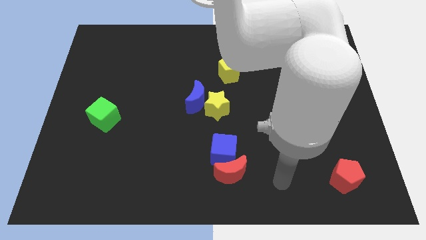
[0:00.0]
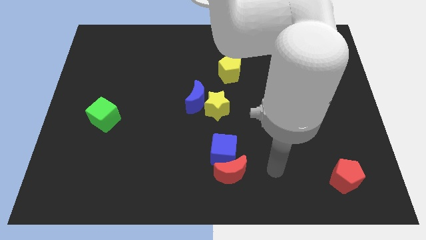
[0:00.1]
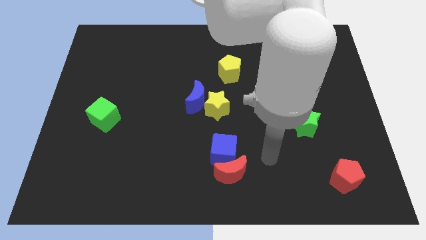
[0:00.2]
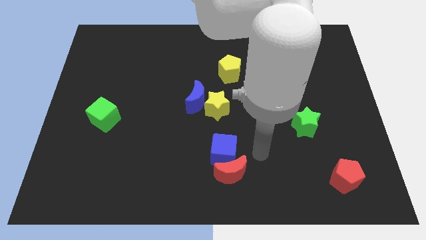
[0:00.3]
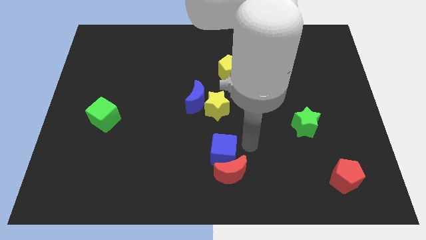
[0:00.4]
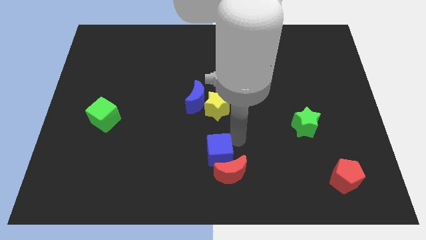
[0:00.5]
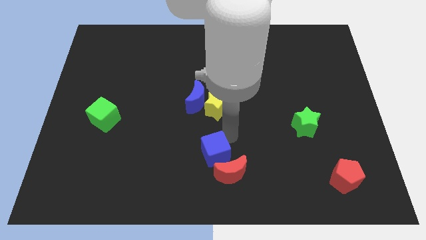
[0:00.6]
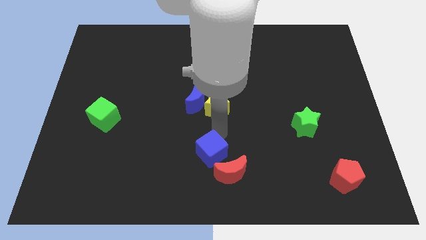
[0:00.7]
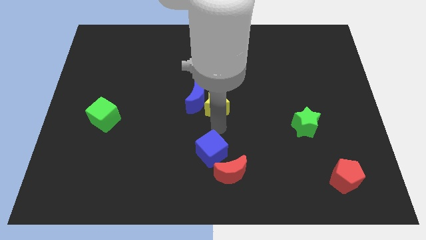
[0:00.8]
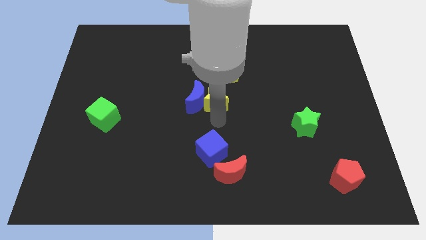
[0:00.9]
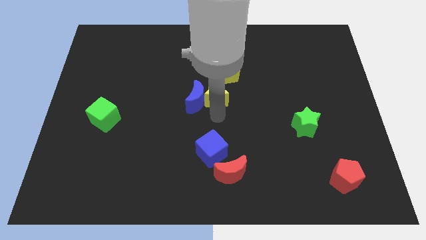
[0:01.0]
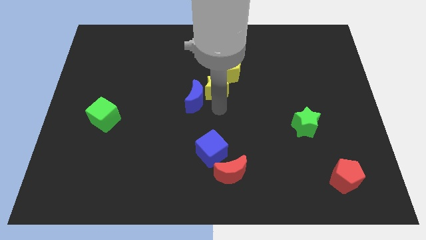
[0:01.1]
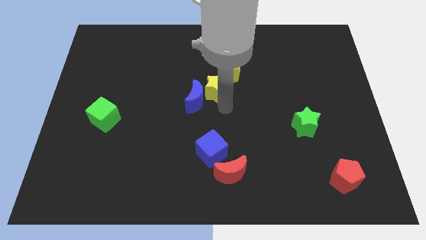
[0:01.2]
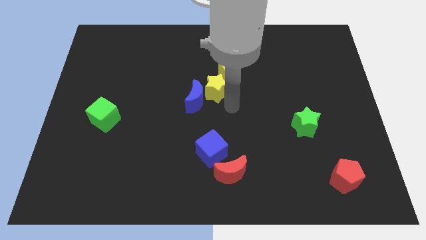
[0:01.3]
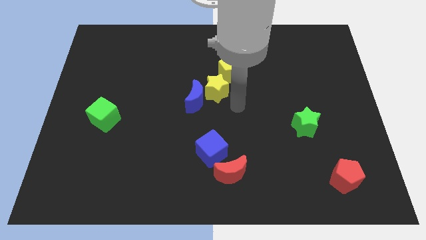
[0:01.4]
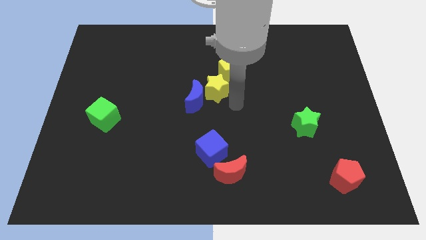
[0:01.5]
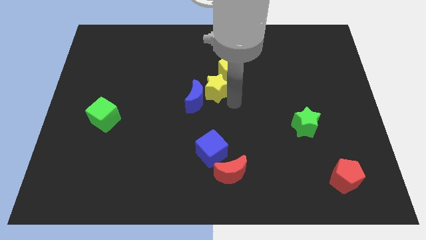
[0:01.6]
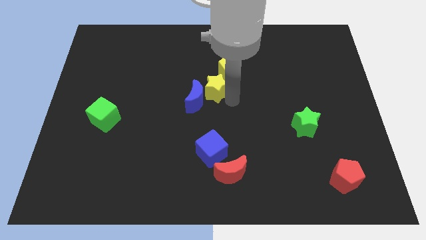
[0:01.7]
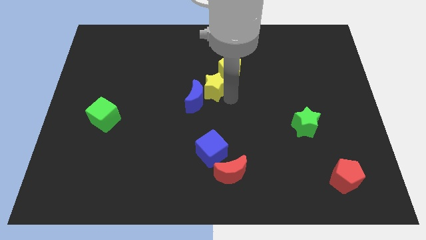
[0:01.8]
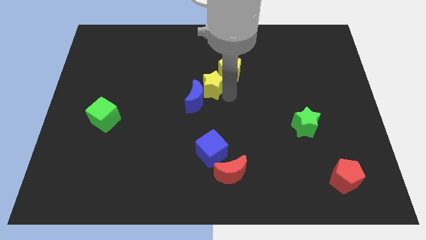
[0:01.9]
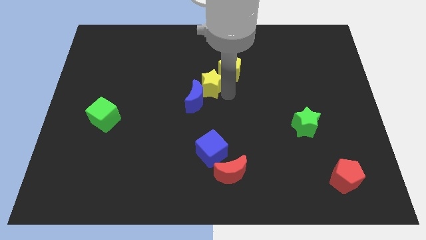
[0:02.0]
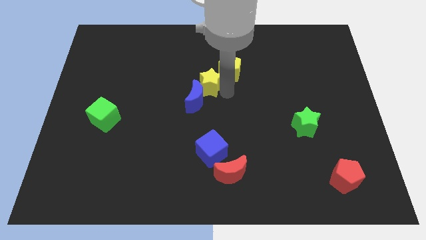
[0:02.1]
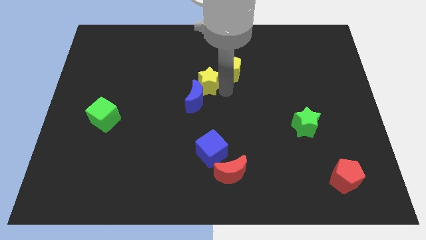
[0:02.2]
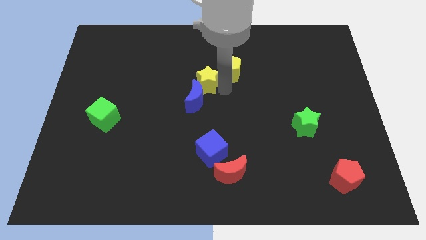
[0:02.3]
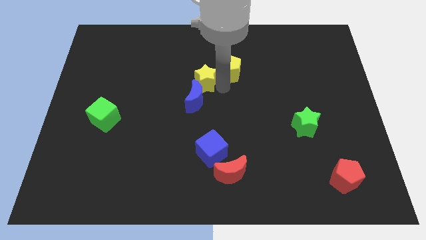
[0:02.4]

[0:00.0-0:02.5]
slightly push the yellow star up and then left

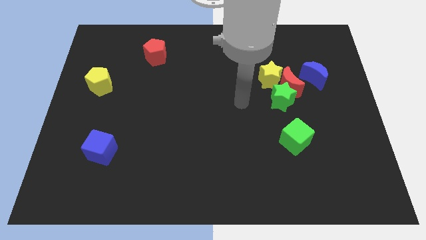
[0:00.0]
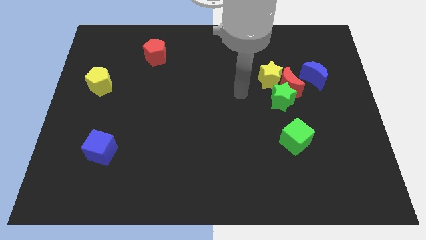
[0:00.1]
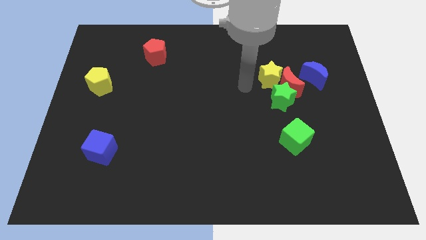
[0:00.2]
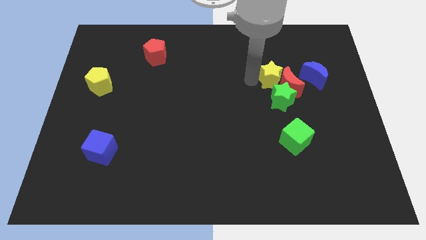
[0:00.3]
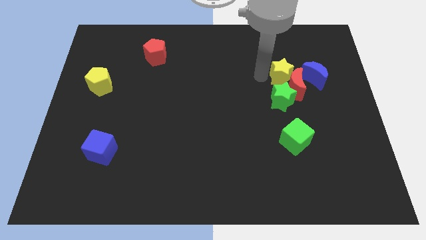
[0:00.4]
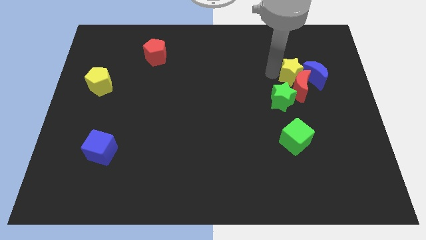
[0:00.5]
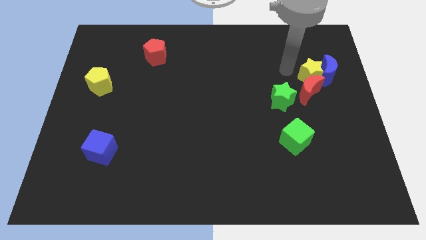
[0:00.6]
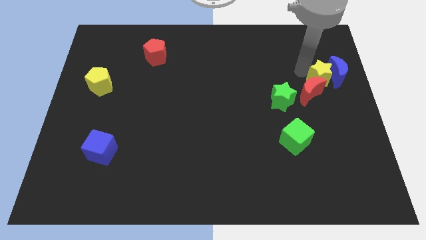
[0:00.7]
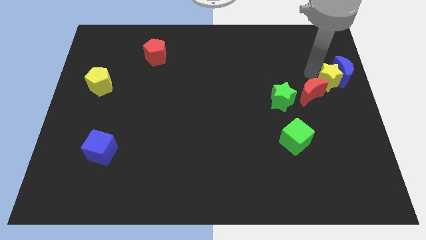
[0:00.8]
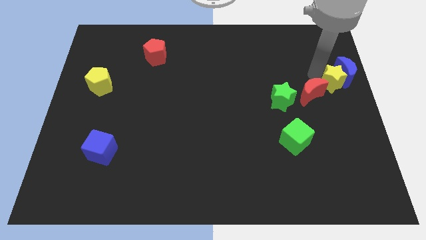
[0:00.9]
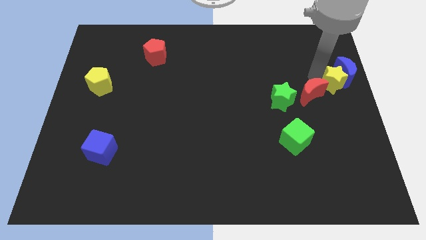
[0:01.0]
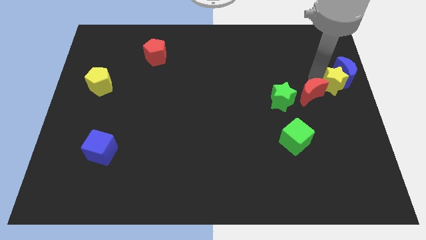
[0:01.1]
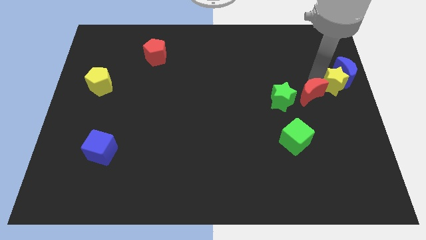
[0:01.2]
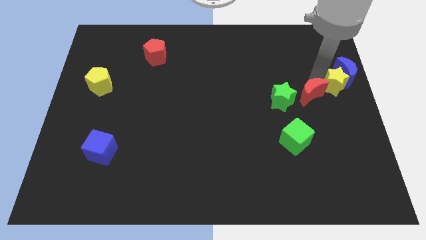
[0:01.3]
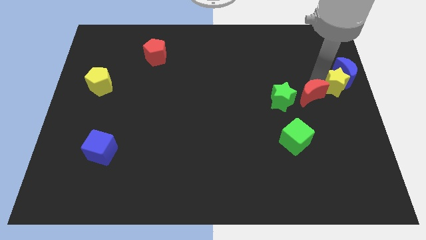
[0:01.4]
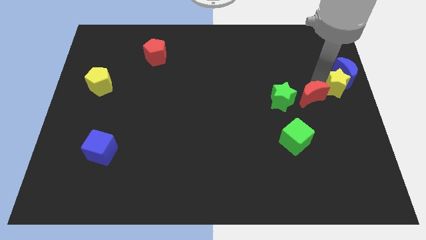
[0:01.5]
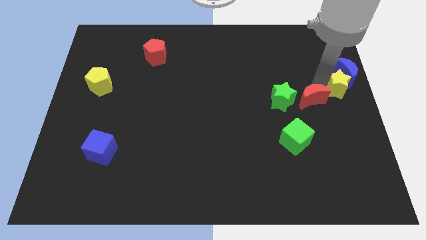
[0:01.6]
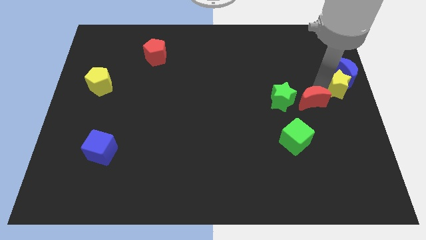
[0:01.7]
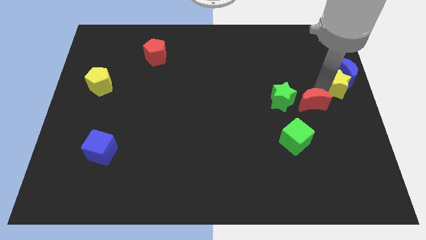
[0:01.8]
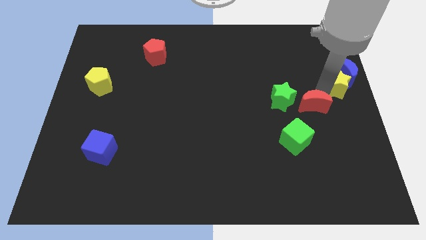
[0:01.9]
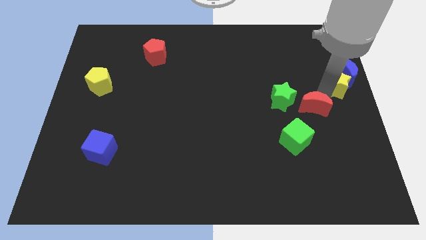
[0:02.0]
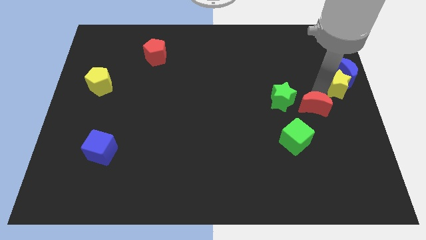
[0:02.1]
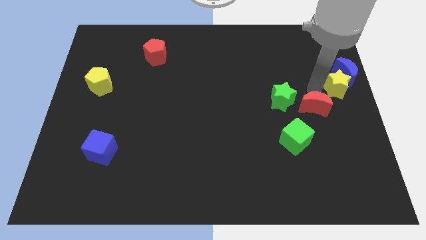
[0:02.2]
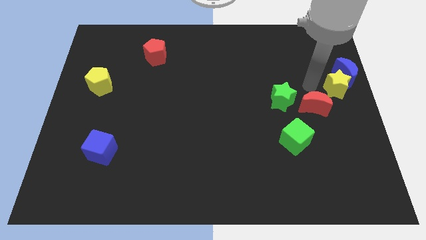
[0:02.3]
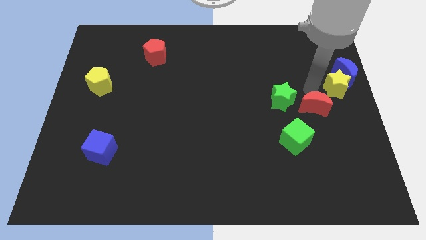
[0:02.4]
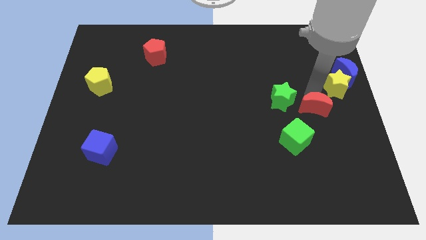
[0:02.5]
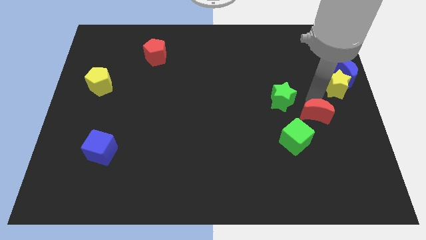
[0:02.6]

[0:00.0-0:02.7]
push the red moon down somewhat

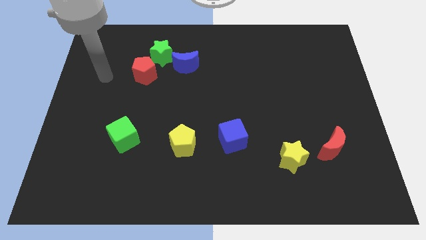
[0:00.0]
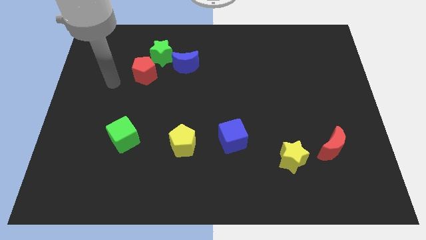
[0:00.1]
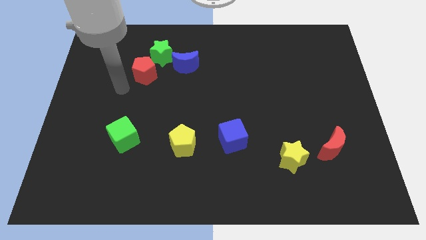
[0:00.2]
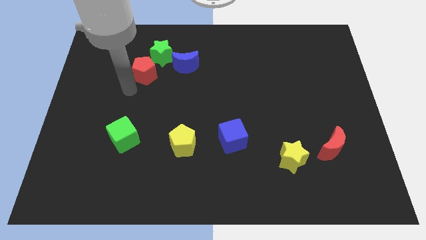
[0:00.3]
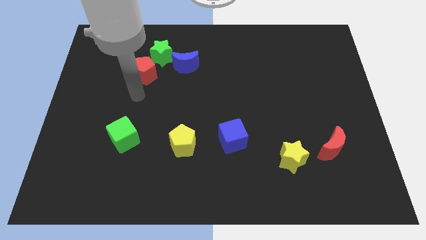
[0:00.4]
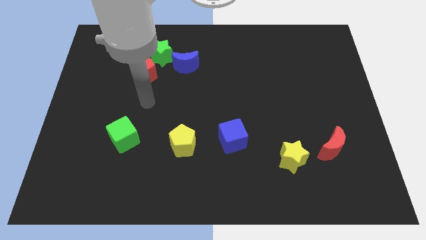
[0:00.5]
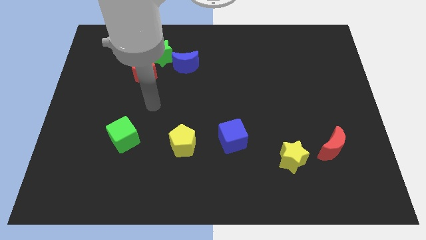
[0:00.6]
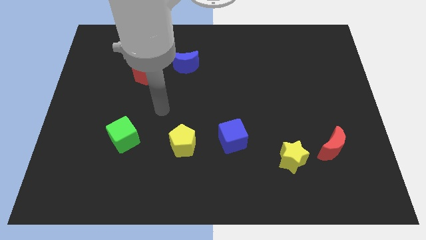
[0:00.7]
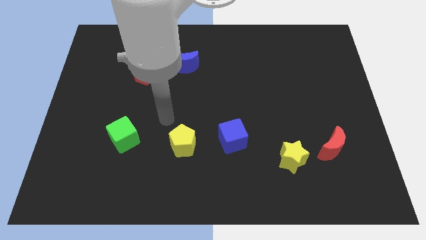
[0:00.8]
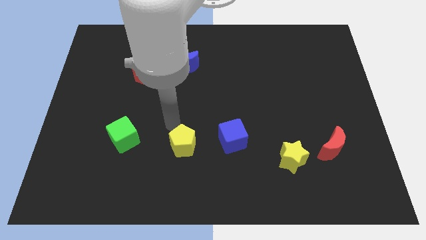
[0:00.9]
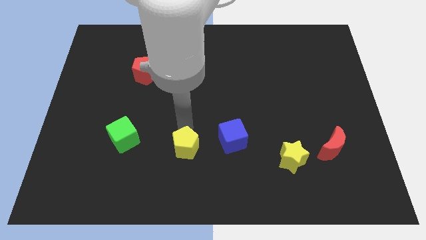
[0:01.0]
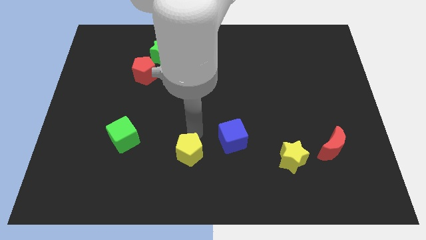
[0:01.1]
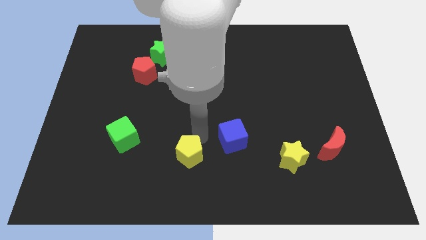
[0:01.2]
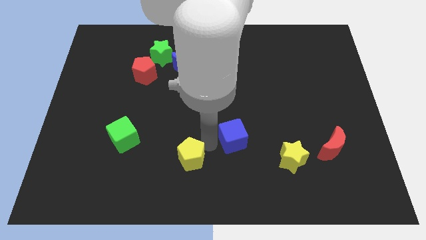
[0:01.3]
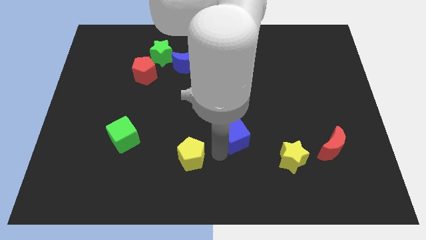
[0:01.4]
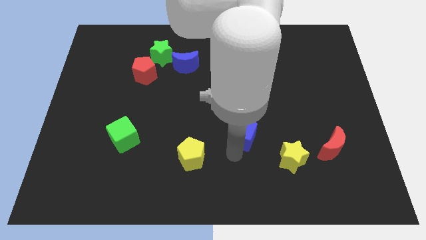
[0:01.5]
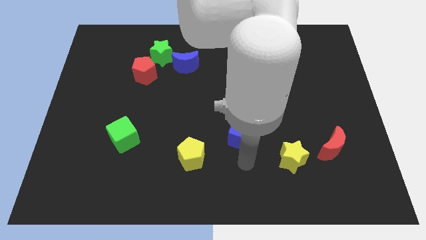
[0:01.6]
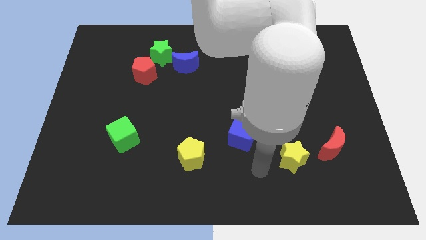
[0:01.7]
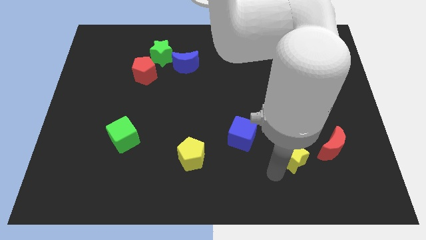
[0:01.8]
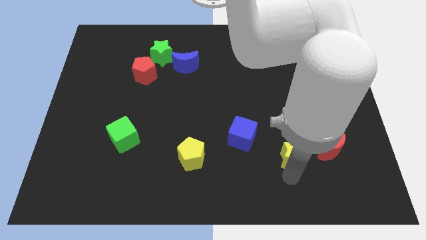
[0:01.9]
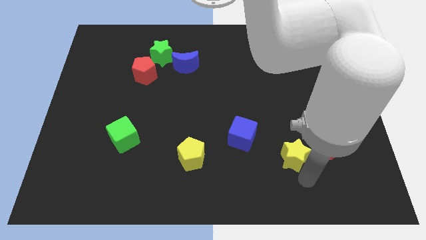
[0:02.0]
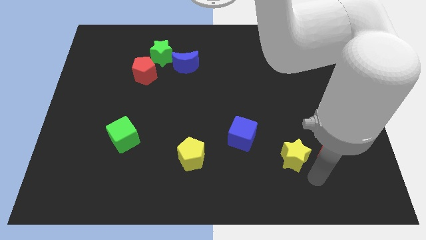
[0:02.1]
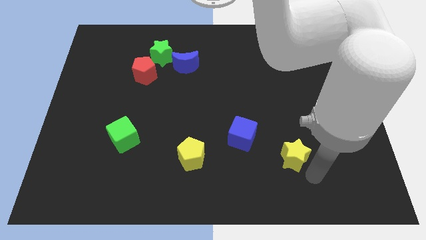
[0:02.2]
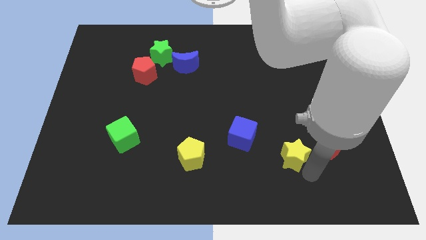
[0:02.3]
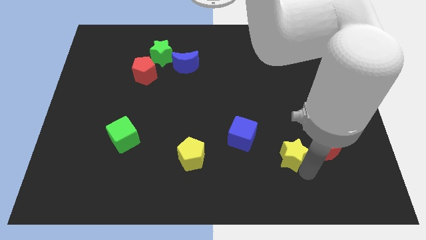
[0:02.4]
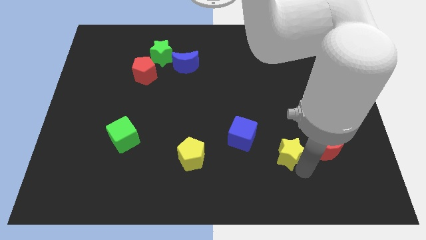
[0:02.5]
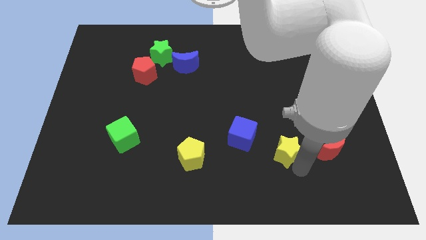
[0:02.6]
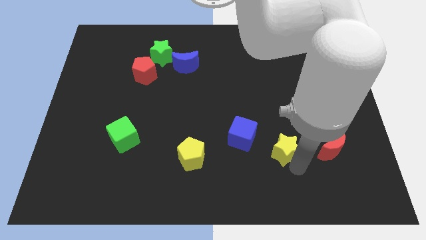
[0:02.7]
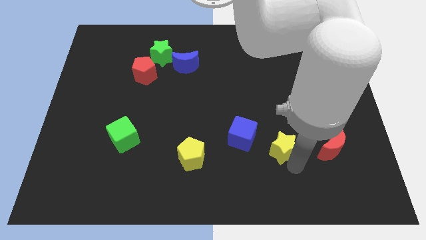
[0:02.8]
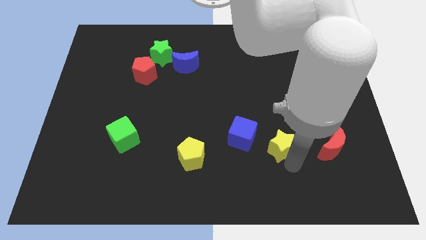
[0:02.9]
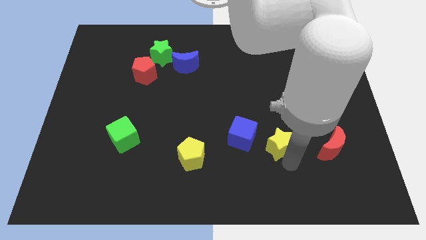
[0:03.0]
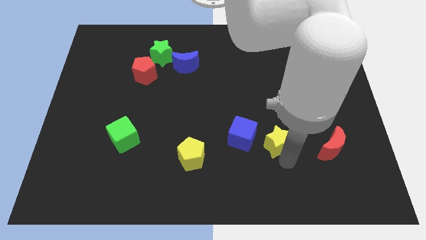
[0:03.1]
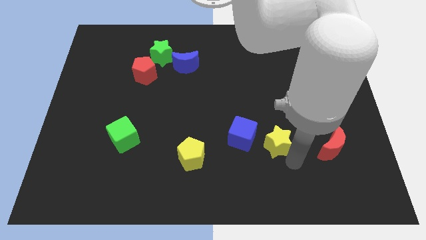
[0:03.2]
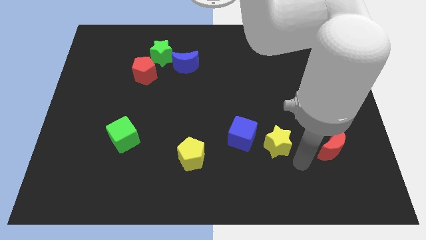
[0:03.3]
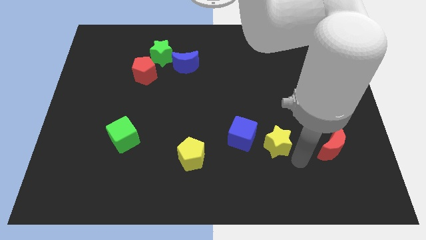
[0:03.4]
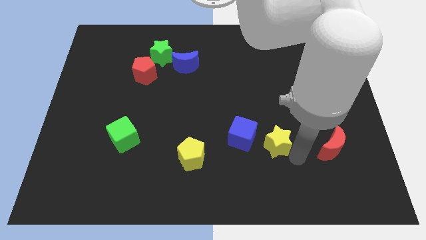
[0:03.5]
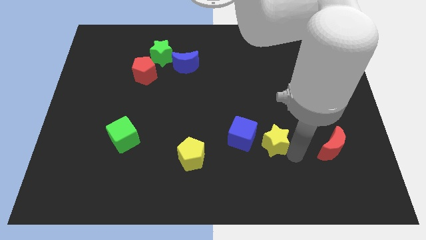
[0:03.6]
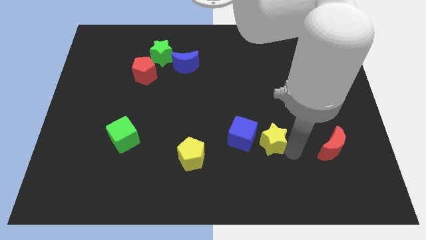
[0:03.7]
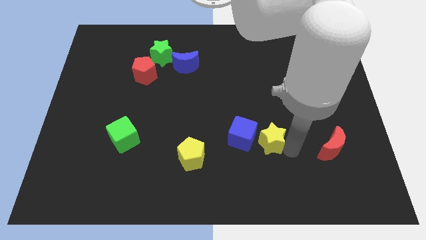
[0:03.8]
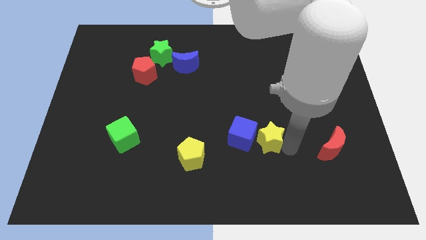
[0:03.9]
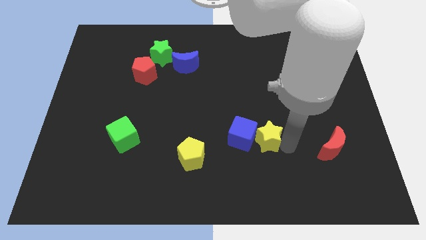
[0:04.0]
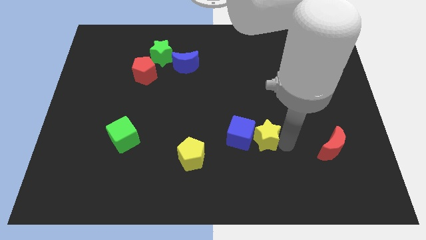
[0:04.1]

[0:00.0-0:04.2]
move the yellow star up and then left somewhat
